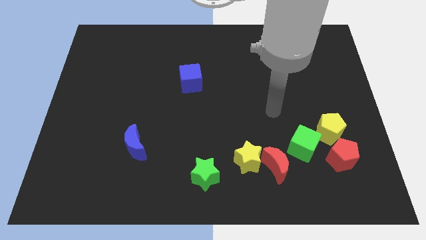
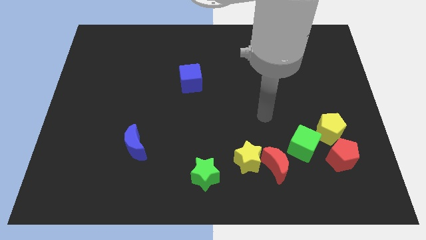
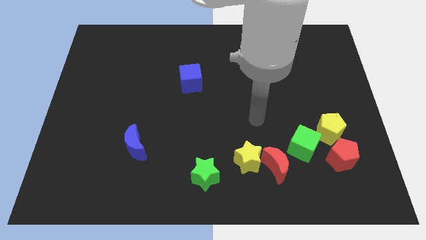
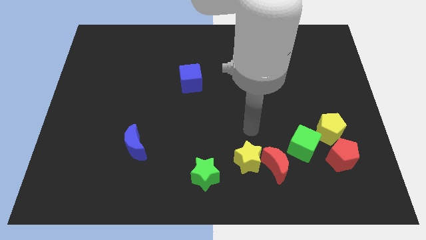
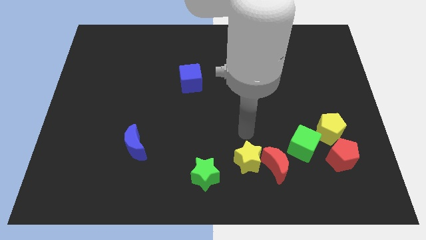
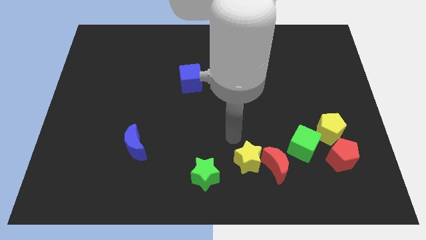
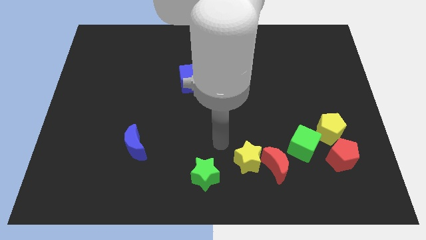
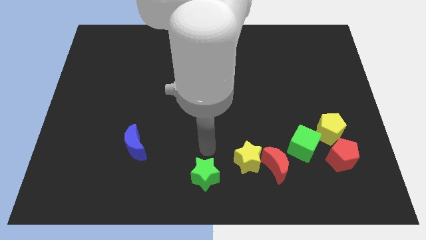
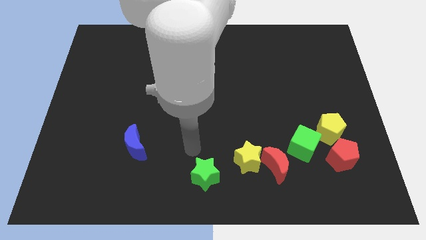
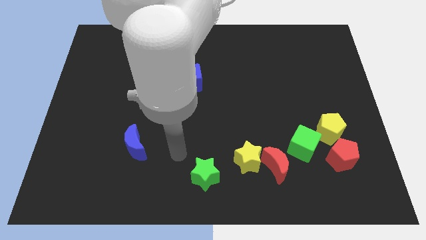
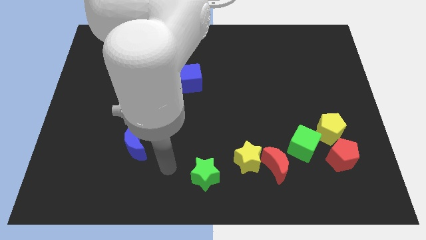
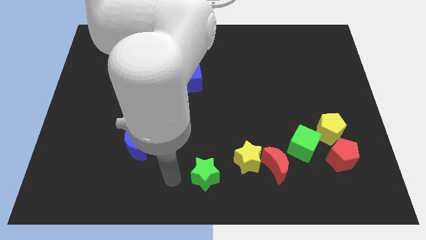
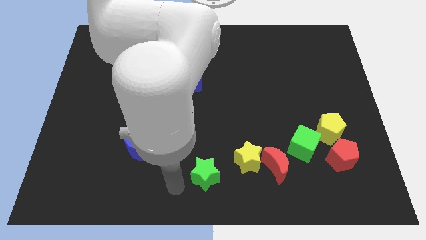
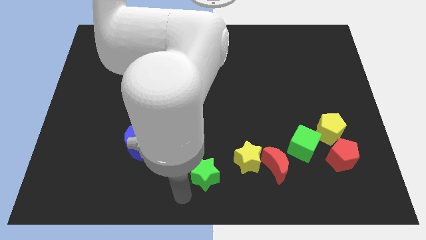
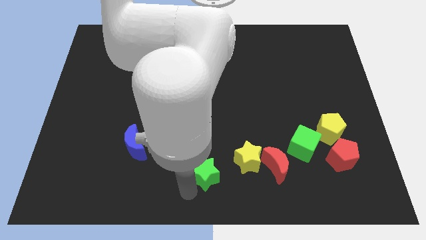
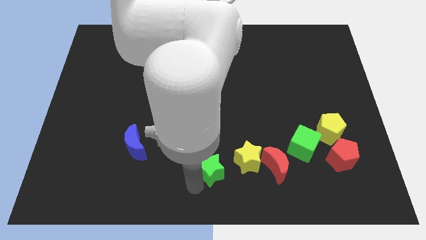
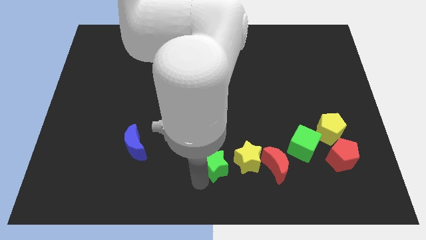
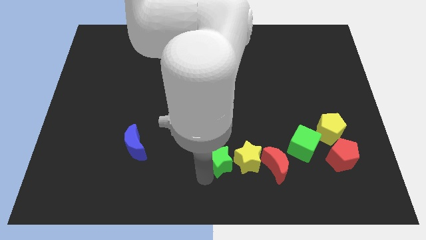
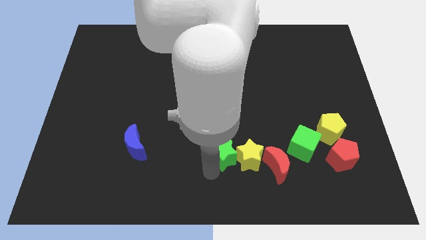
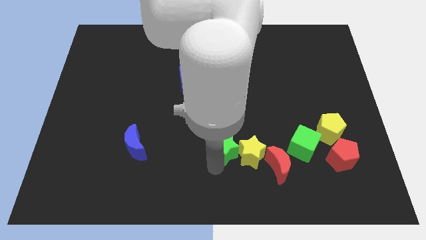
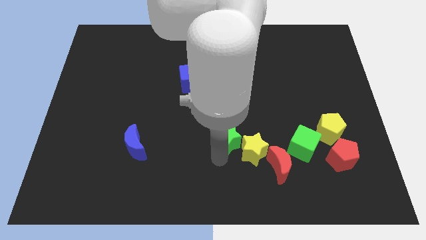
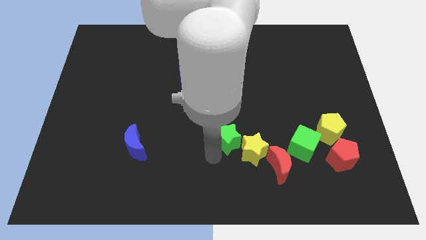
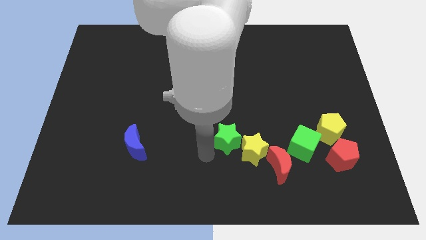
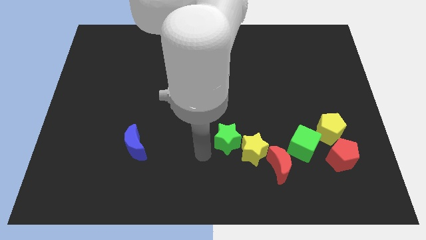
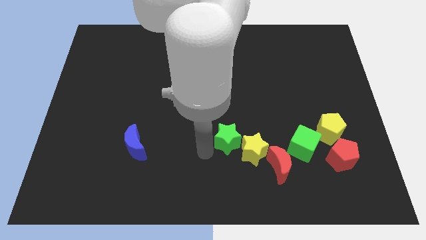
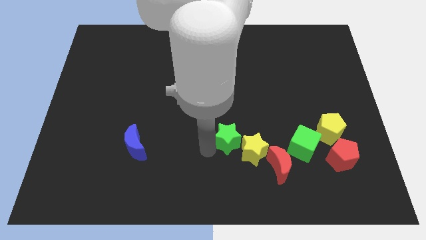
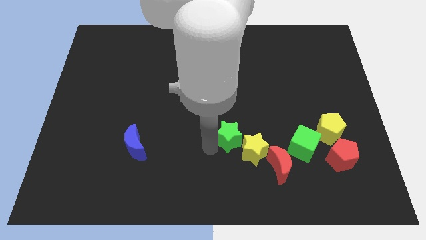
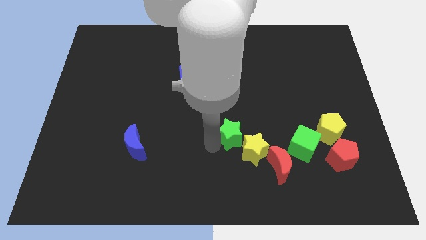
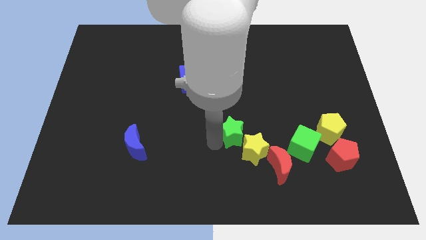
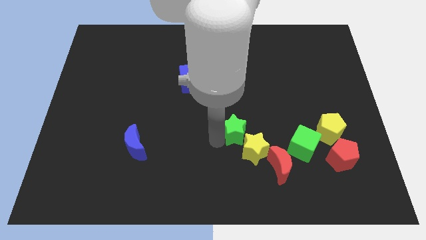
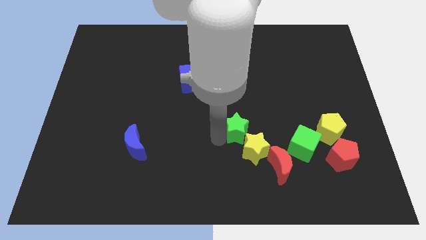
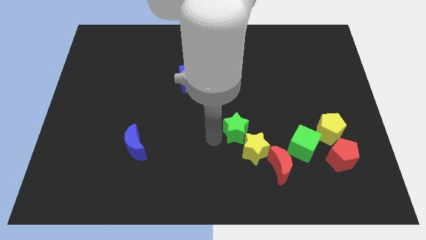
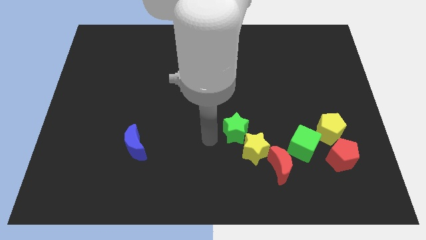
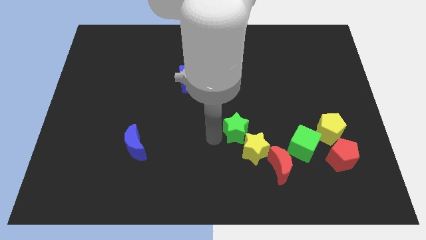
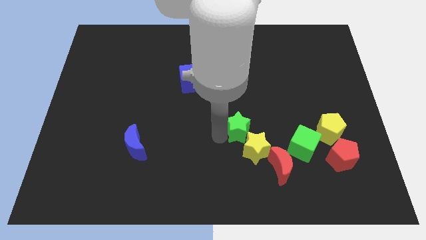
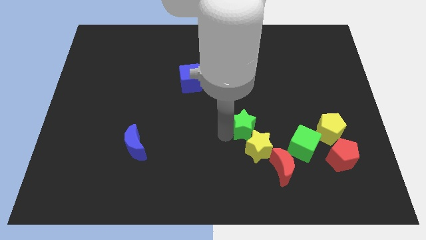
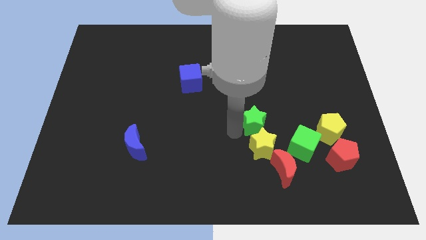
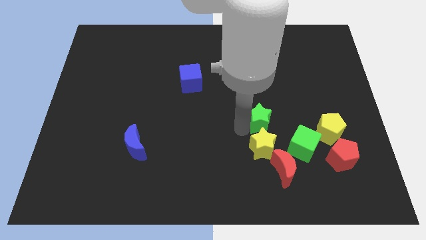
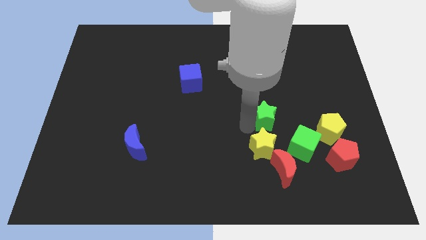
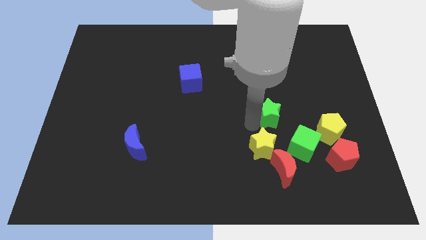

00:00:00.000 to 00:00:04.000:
push the green star upwards and right

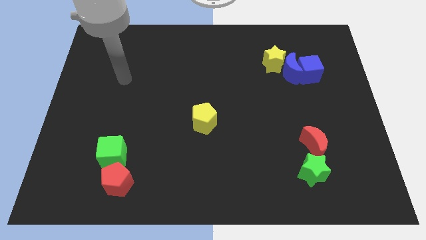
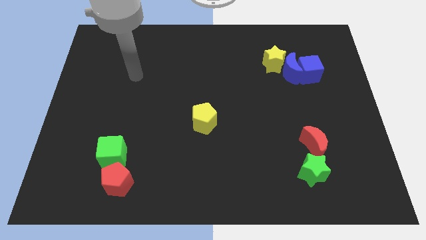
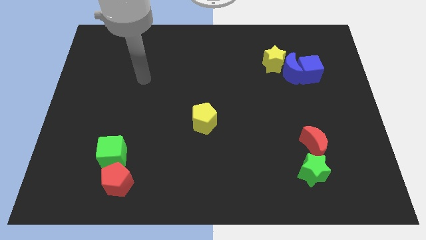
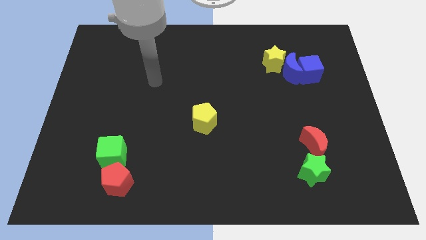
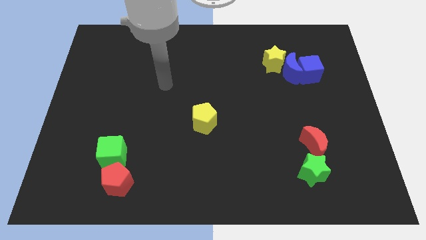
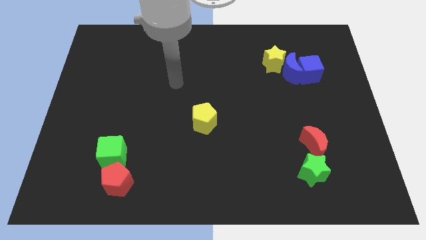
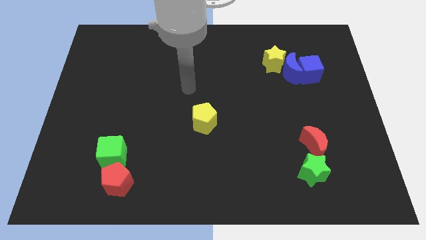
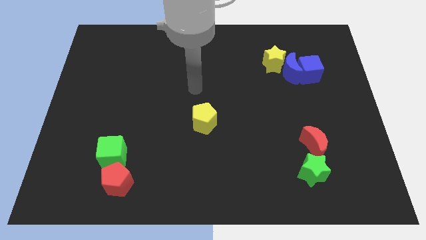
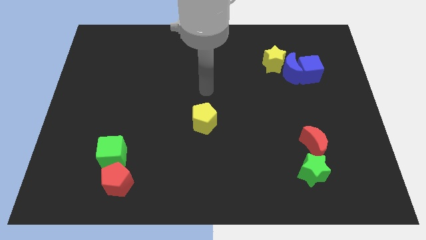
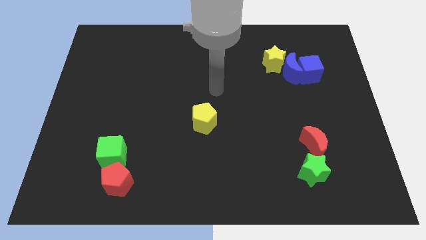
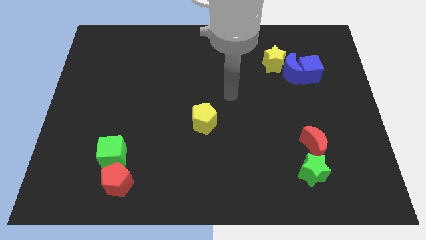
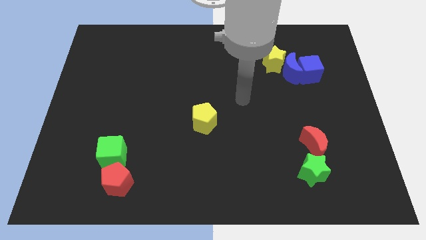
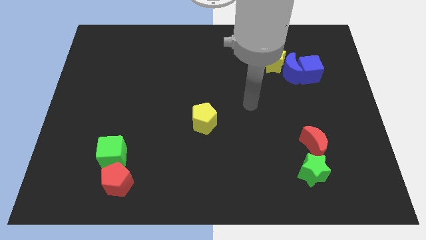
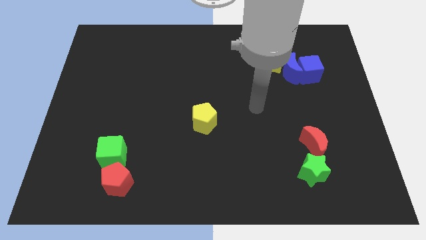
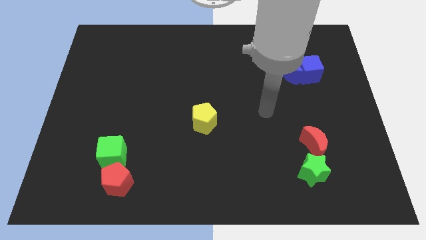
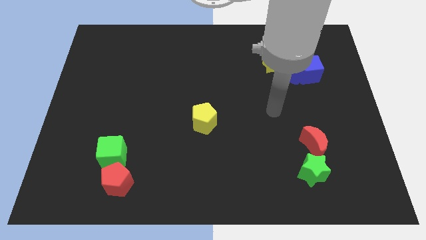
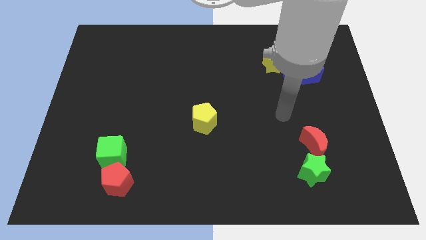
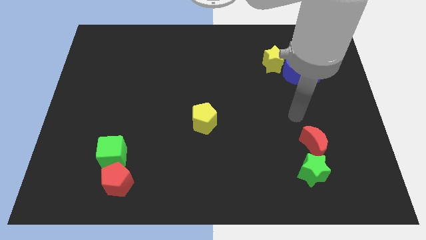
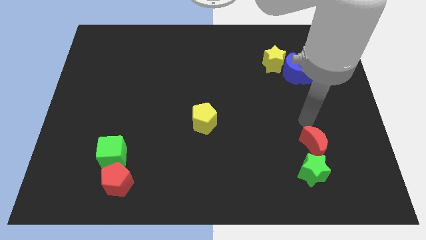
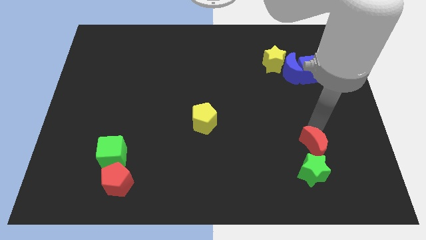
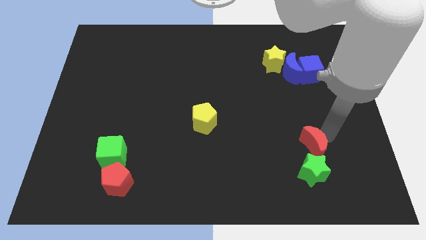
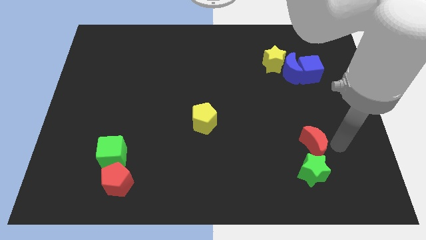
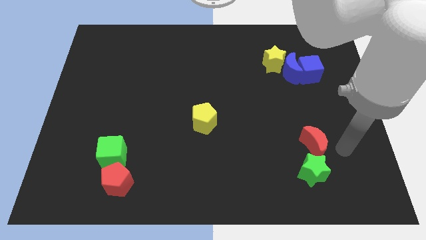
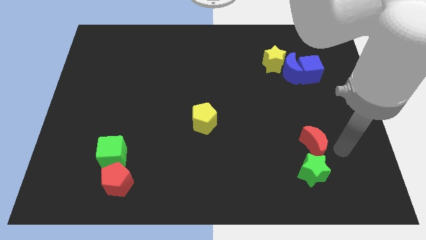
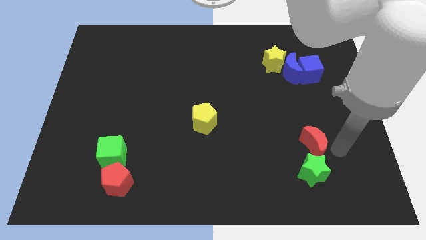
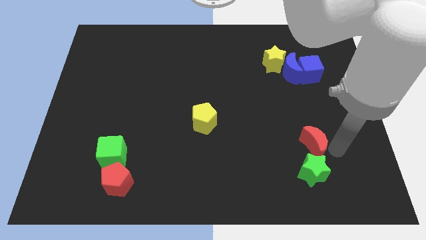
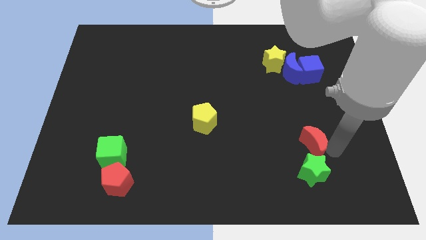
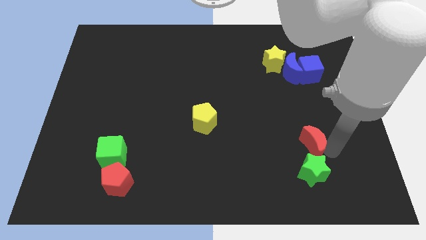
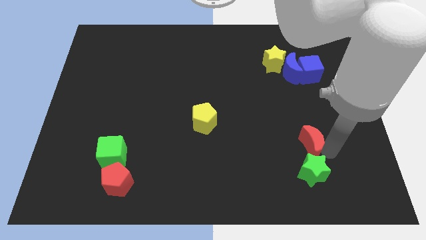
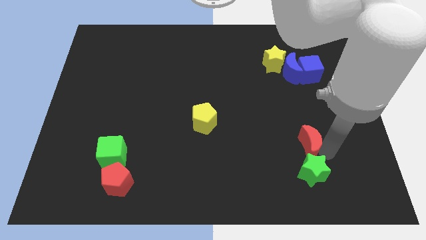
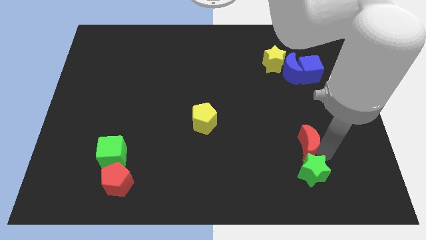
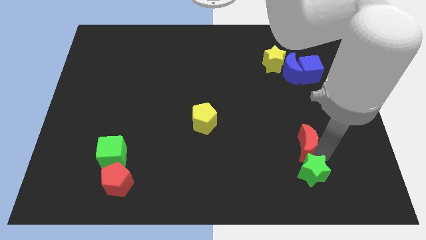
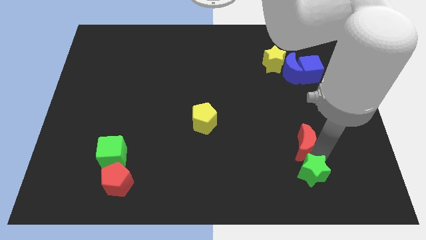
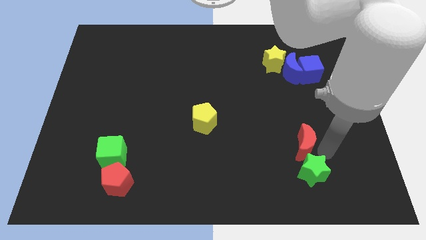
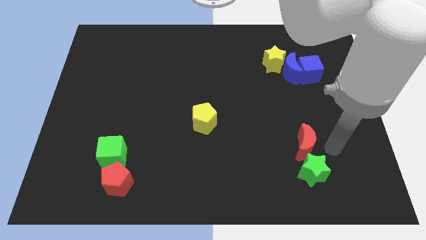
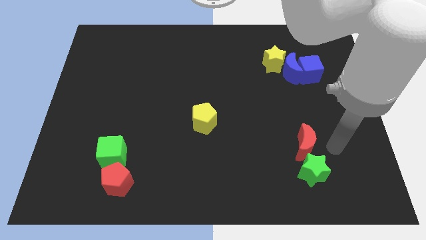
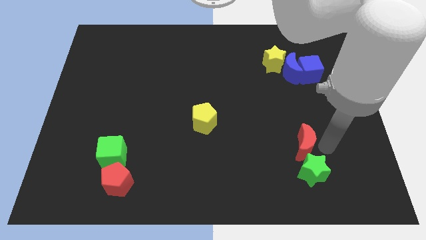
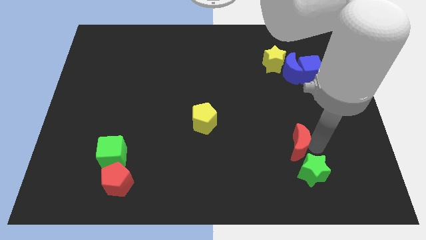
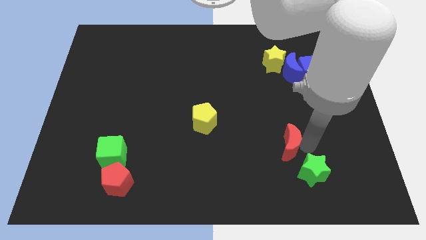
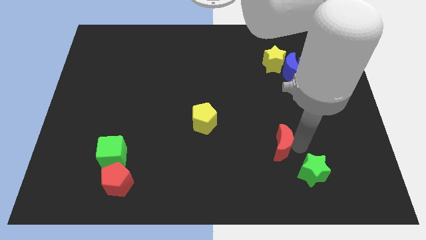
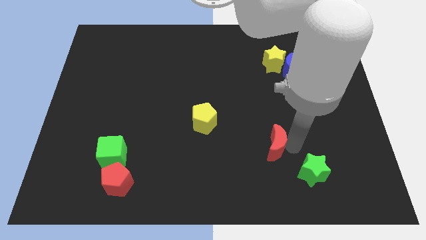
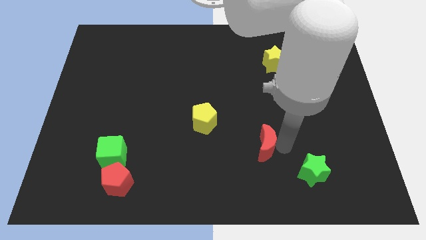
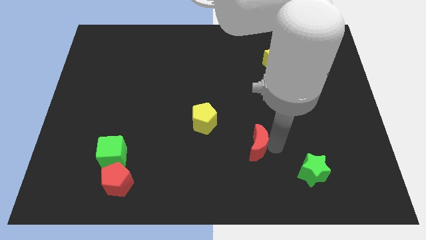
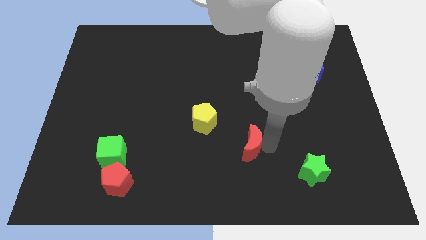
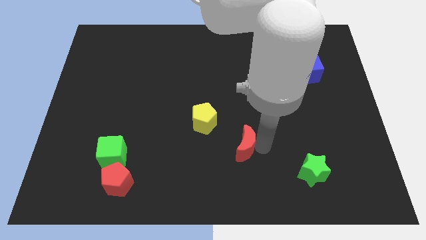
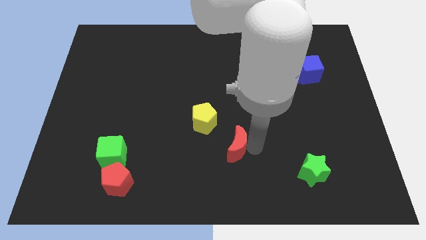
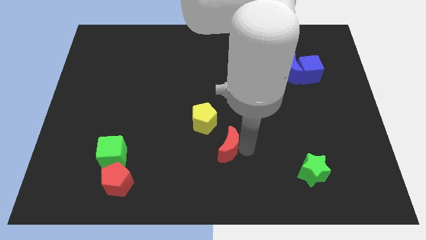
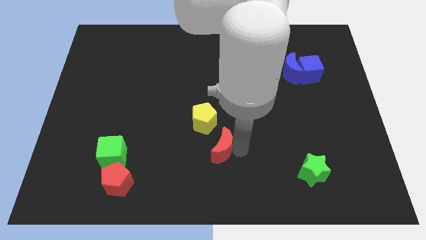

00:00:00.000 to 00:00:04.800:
push the red moon to the left
